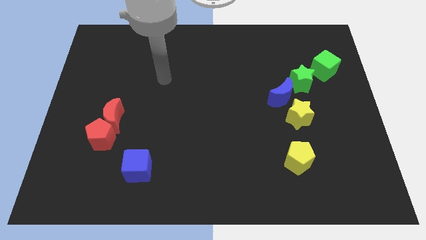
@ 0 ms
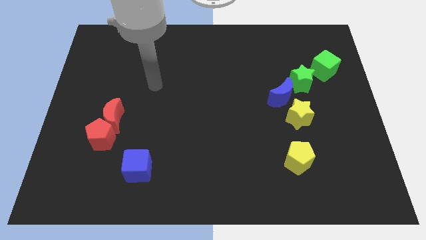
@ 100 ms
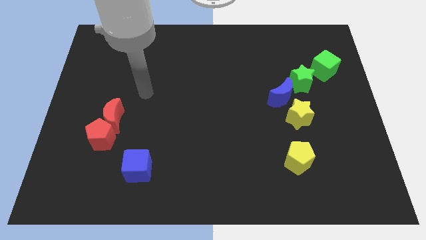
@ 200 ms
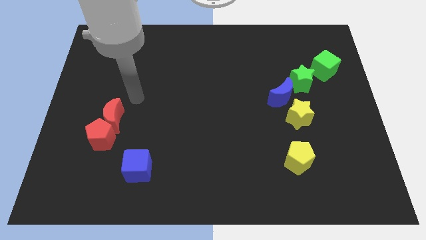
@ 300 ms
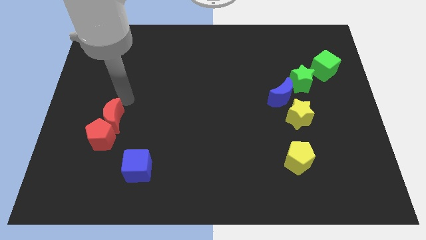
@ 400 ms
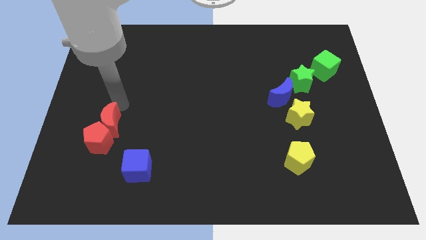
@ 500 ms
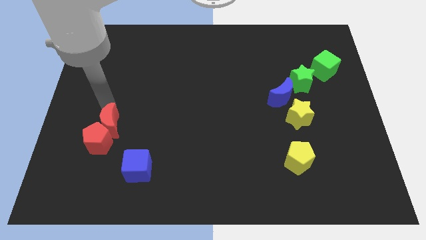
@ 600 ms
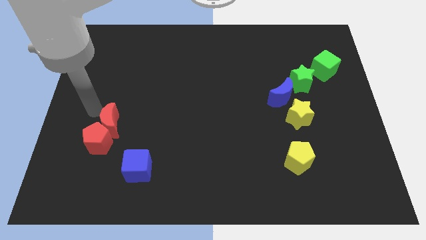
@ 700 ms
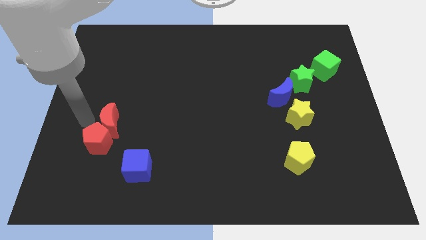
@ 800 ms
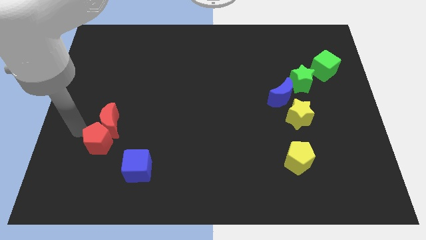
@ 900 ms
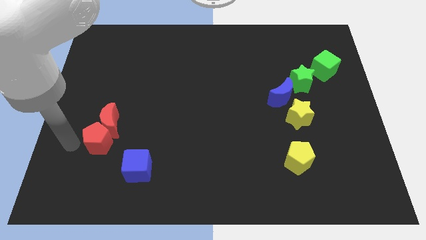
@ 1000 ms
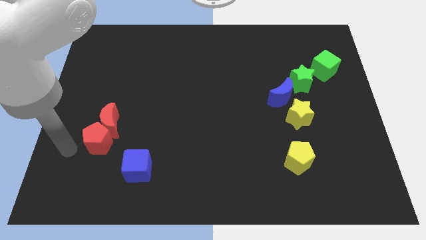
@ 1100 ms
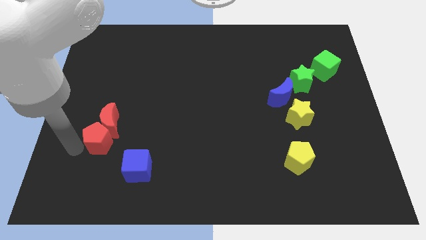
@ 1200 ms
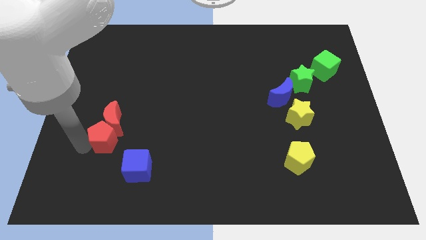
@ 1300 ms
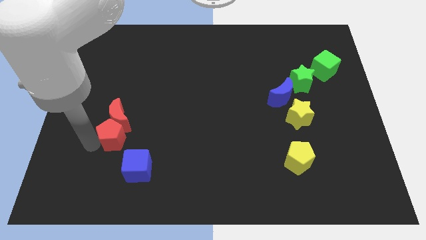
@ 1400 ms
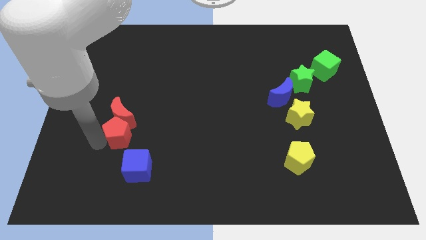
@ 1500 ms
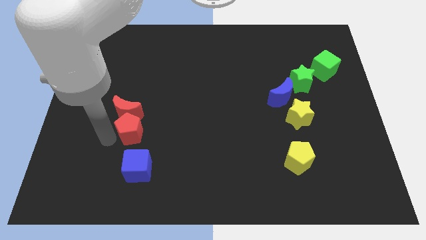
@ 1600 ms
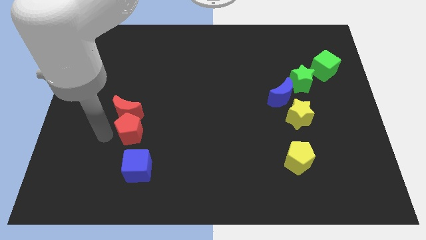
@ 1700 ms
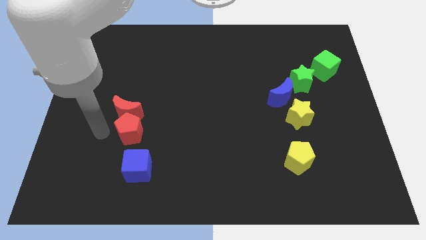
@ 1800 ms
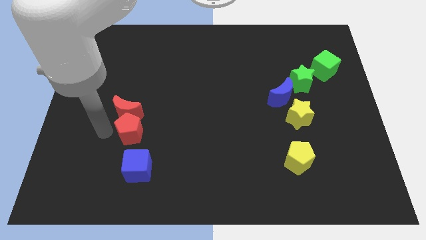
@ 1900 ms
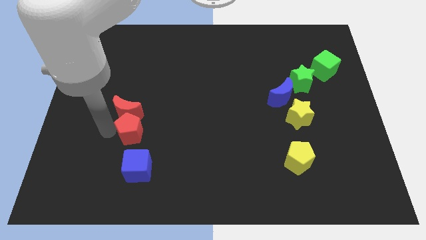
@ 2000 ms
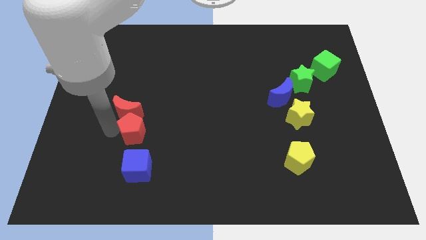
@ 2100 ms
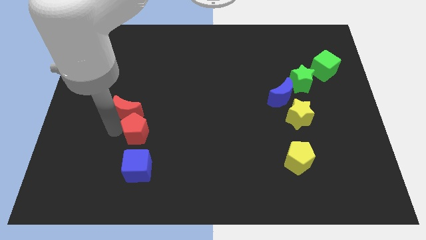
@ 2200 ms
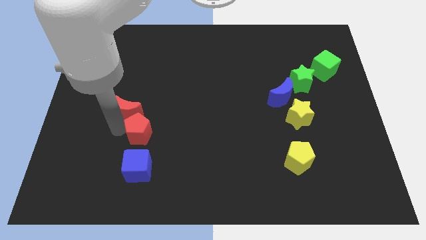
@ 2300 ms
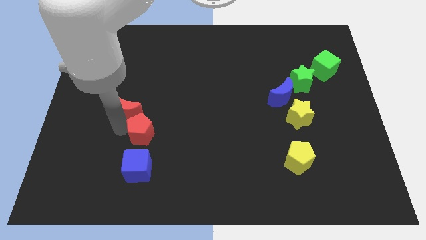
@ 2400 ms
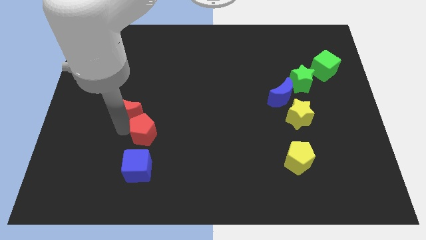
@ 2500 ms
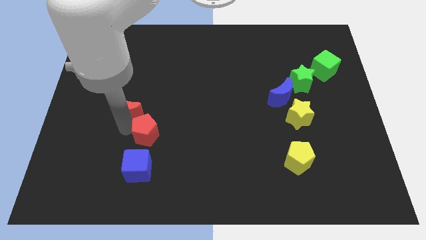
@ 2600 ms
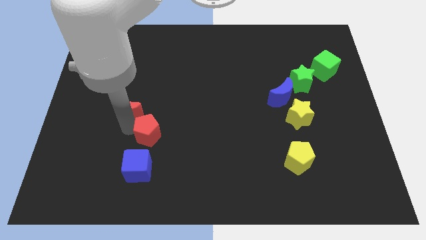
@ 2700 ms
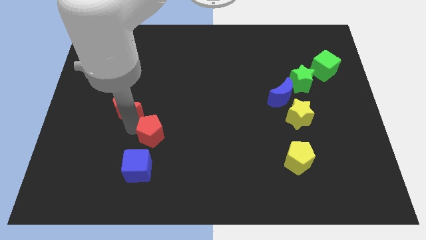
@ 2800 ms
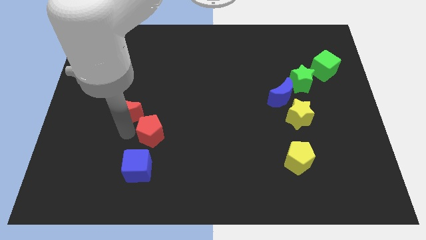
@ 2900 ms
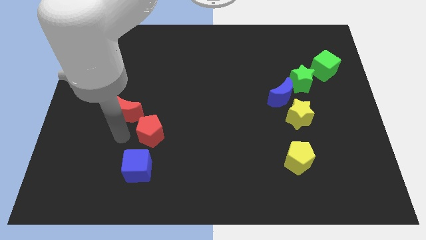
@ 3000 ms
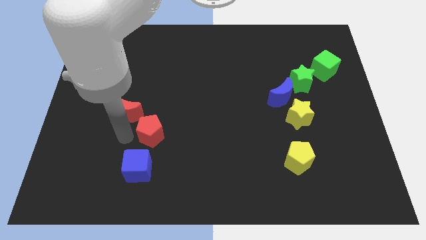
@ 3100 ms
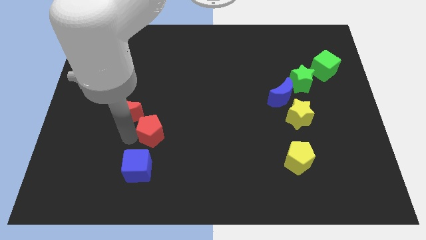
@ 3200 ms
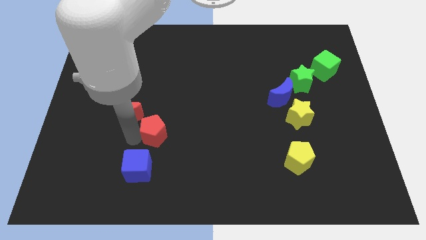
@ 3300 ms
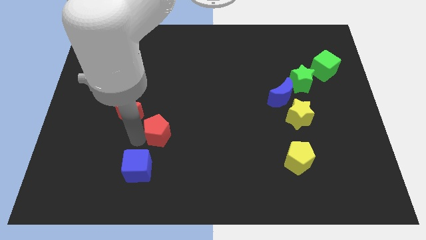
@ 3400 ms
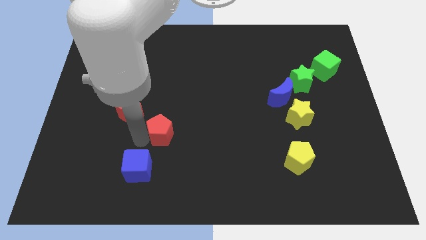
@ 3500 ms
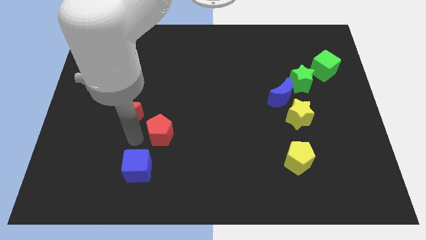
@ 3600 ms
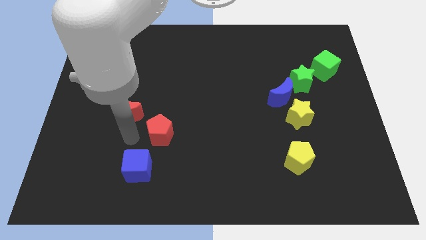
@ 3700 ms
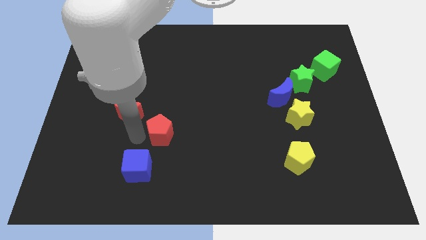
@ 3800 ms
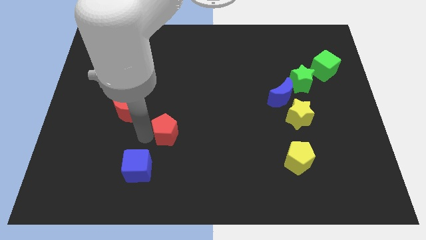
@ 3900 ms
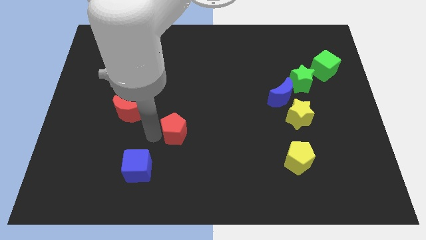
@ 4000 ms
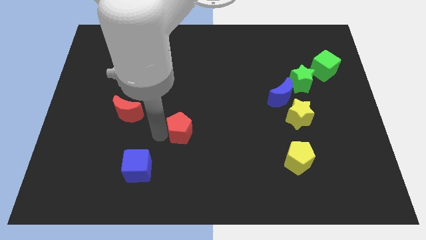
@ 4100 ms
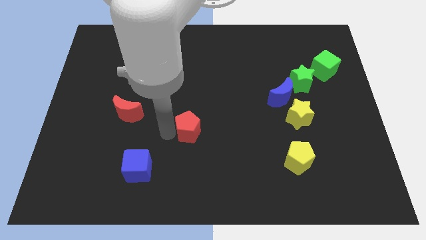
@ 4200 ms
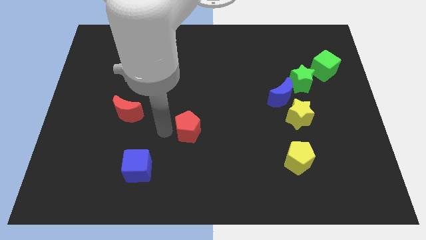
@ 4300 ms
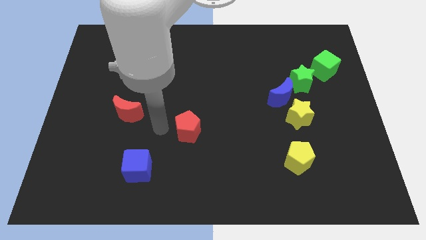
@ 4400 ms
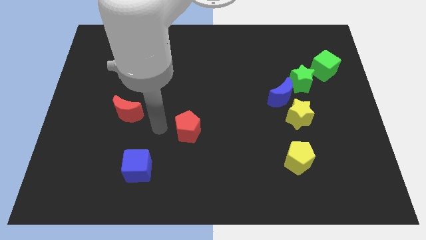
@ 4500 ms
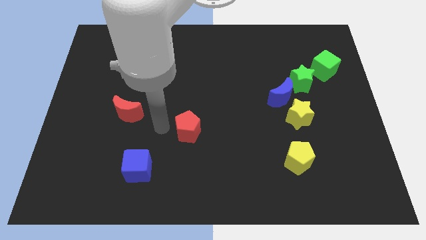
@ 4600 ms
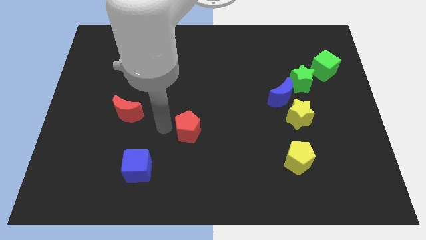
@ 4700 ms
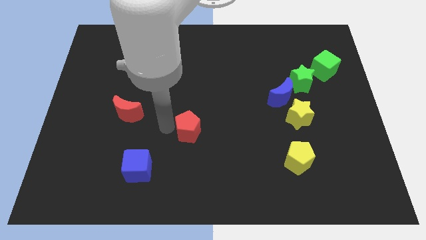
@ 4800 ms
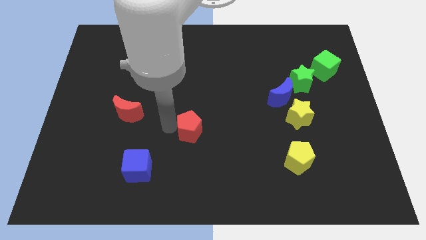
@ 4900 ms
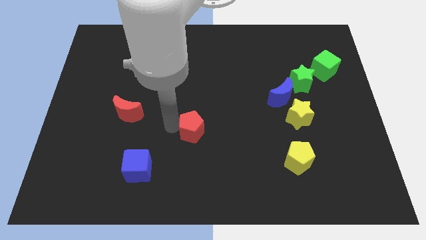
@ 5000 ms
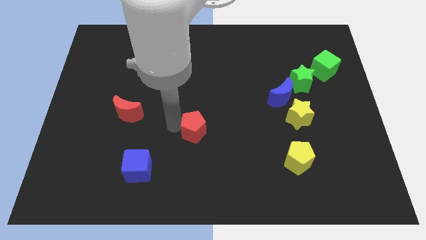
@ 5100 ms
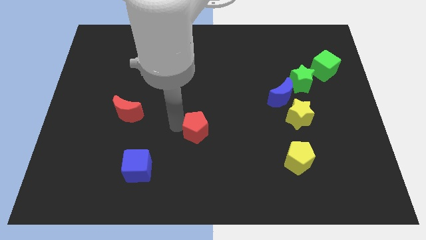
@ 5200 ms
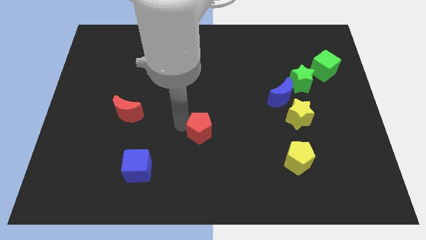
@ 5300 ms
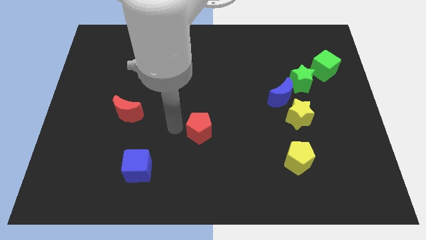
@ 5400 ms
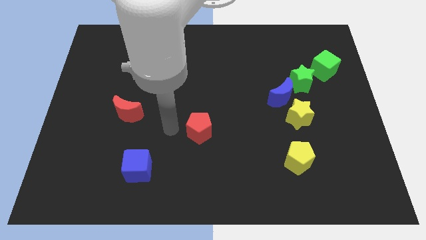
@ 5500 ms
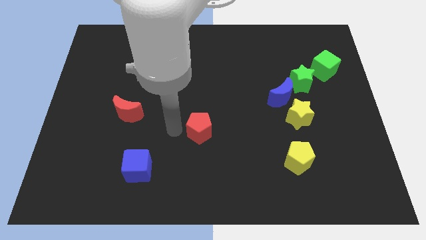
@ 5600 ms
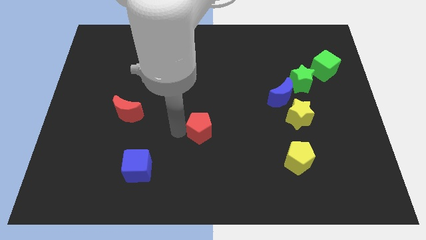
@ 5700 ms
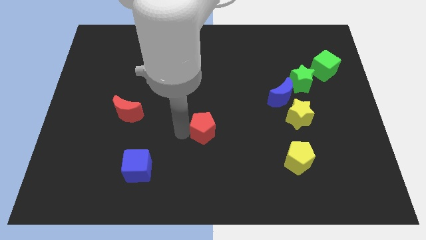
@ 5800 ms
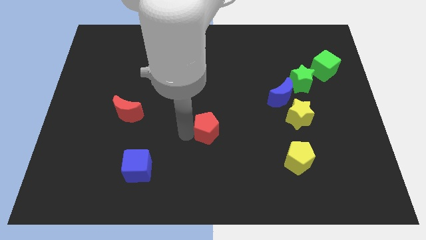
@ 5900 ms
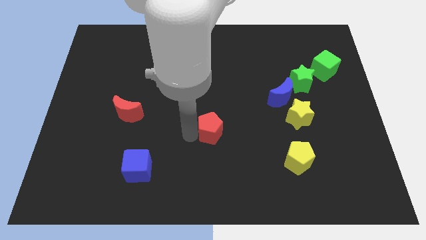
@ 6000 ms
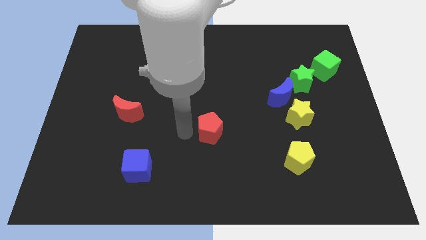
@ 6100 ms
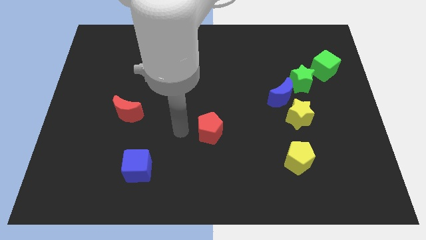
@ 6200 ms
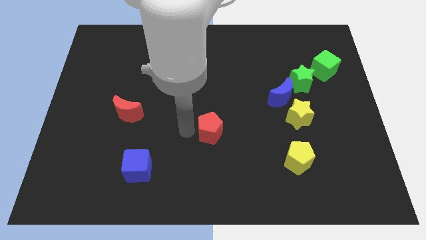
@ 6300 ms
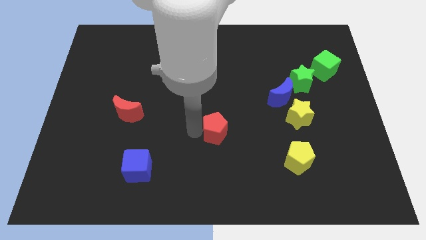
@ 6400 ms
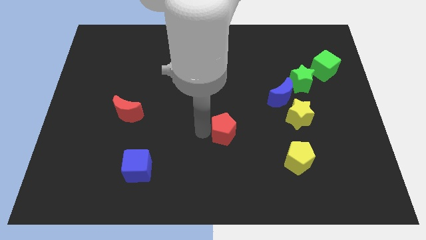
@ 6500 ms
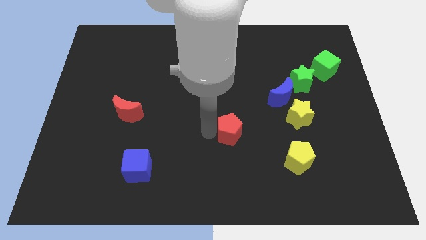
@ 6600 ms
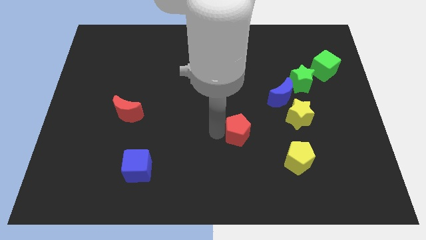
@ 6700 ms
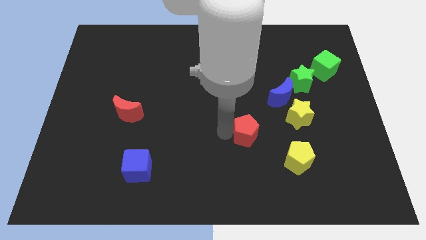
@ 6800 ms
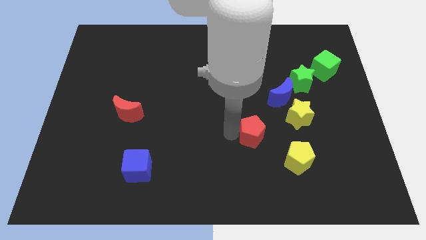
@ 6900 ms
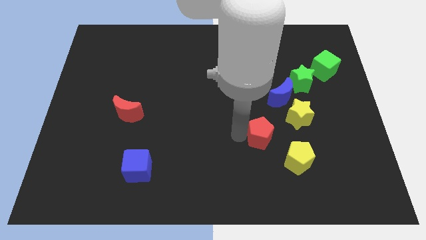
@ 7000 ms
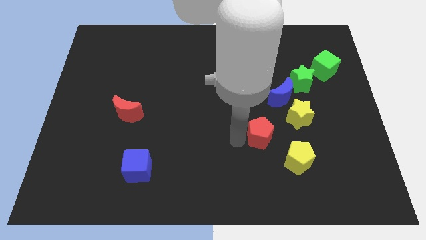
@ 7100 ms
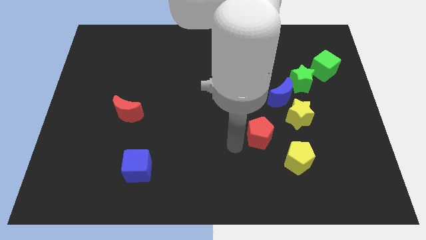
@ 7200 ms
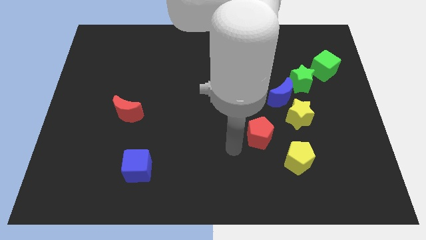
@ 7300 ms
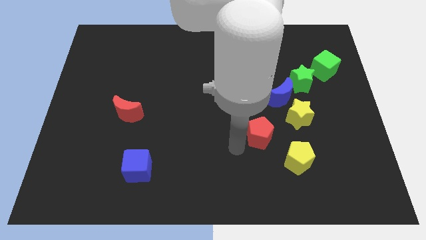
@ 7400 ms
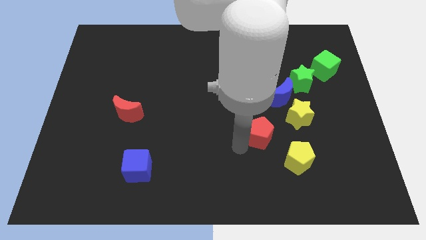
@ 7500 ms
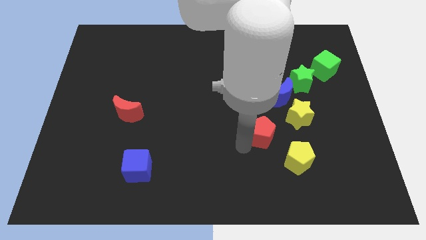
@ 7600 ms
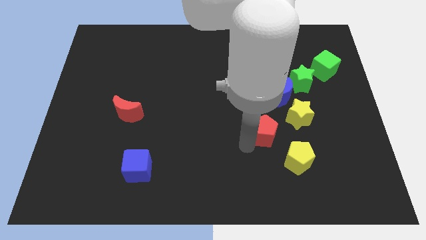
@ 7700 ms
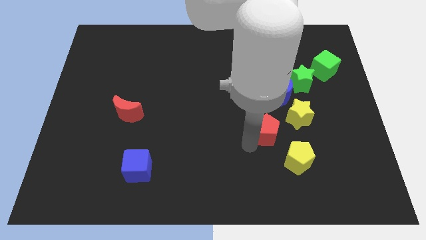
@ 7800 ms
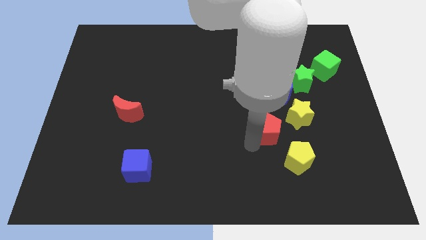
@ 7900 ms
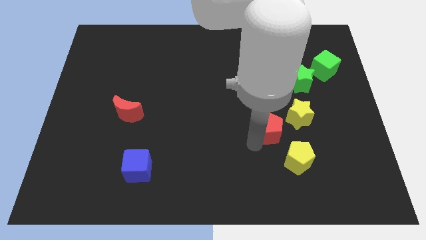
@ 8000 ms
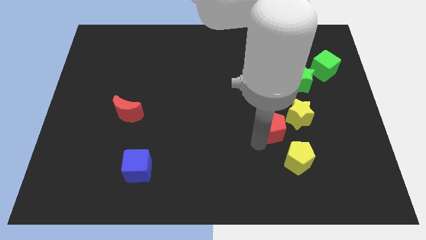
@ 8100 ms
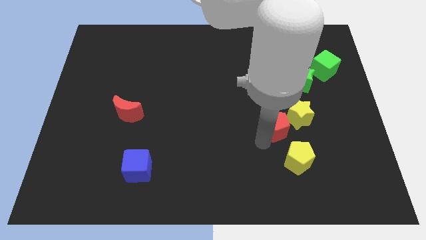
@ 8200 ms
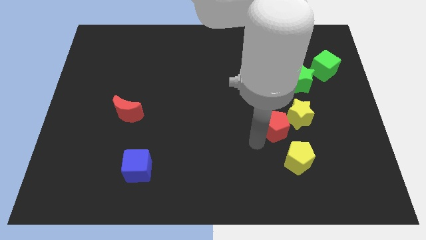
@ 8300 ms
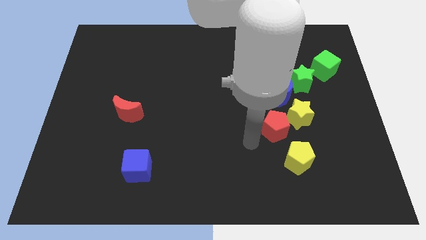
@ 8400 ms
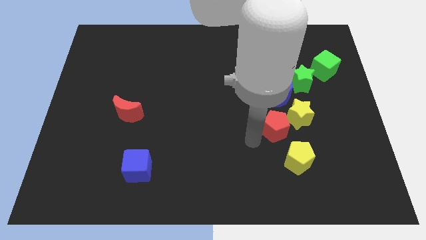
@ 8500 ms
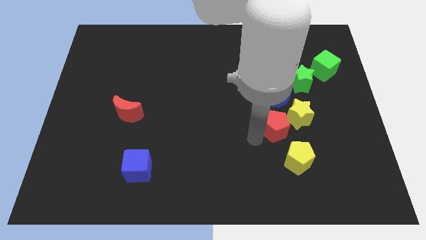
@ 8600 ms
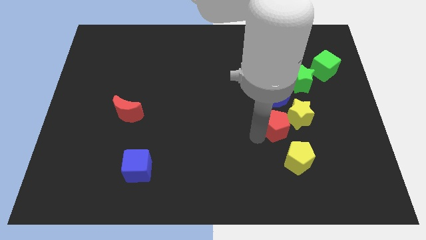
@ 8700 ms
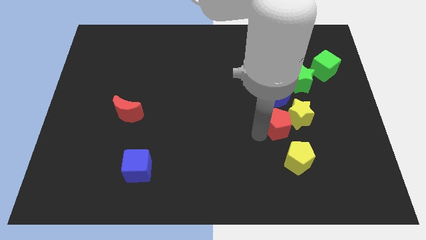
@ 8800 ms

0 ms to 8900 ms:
move the red pentagon close to the yellow star
